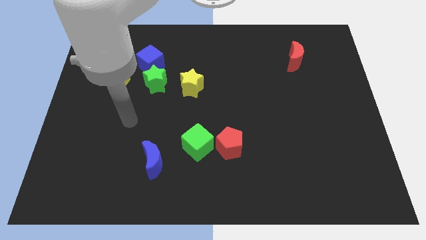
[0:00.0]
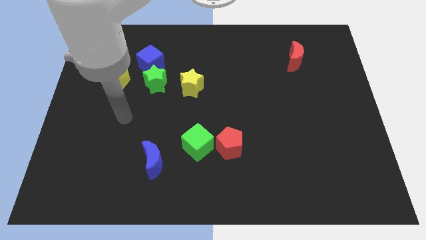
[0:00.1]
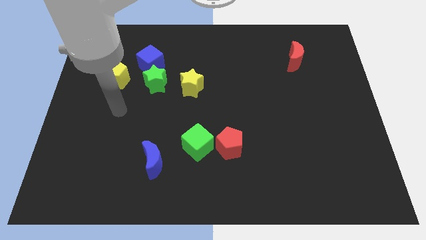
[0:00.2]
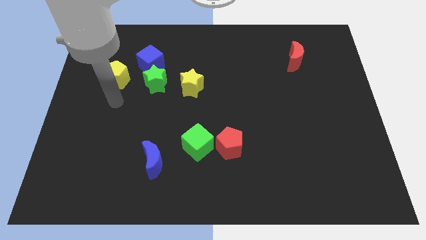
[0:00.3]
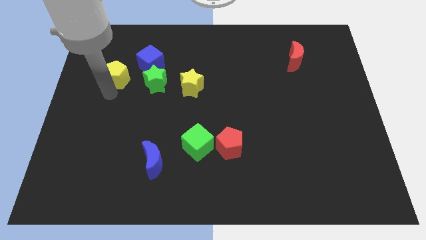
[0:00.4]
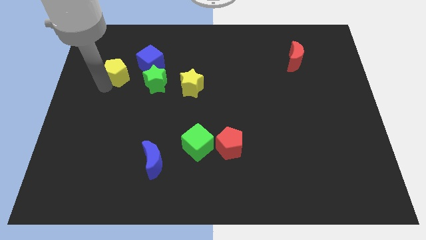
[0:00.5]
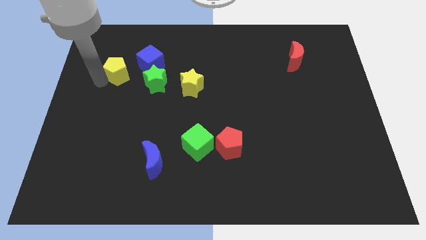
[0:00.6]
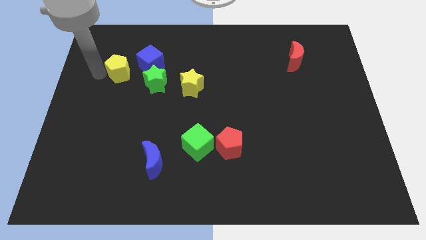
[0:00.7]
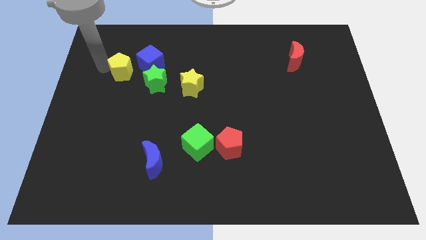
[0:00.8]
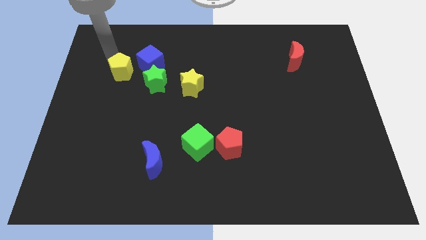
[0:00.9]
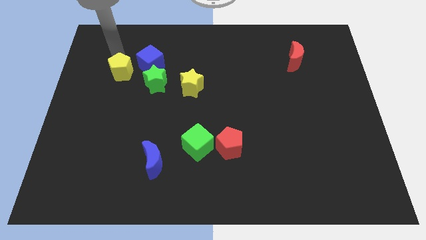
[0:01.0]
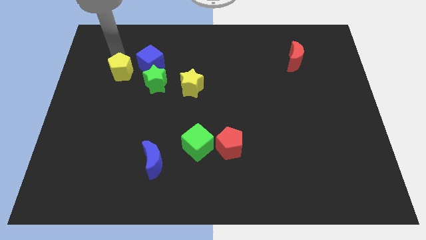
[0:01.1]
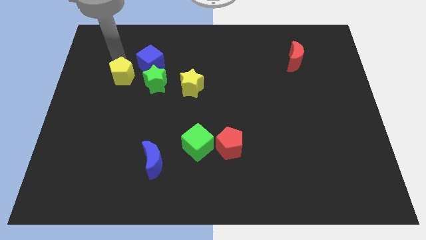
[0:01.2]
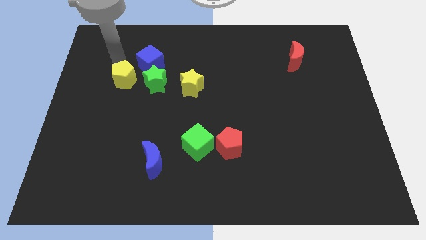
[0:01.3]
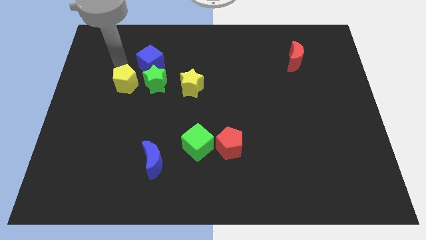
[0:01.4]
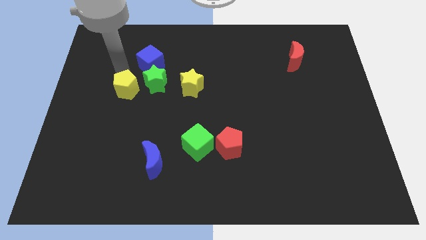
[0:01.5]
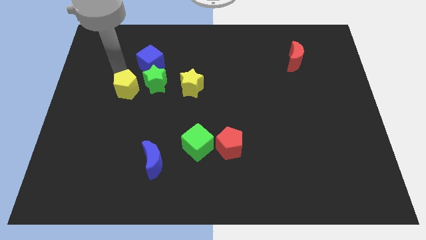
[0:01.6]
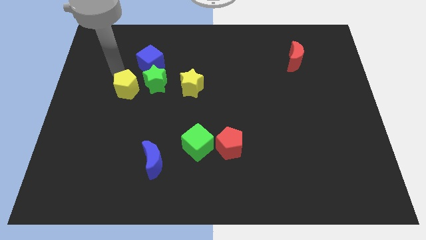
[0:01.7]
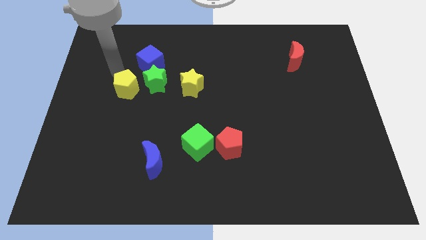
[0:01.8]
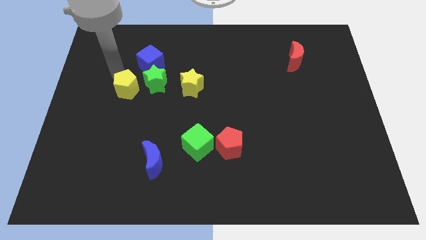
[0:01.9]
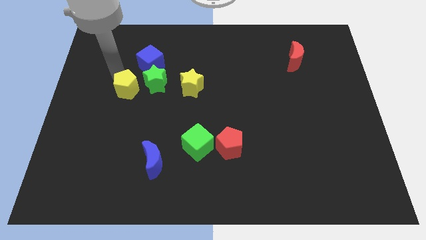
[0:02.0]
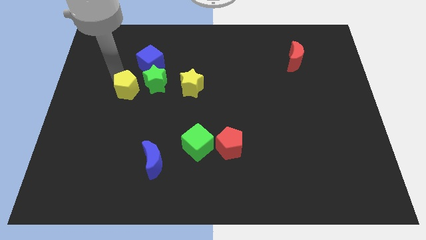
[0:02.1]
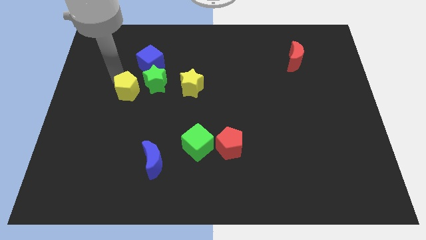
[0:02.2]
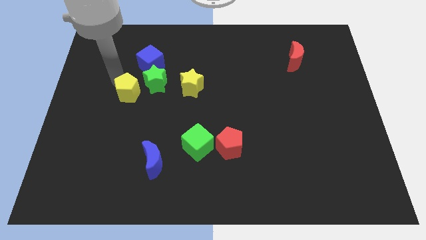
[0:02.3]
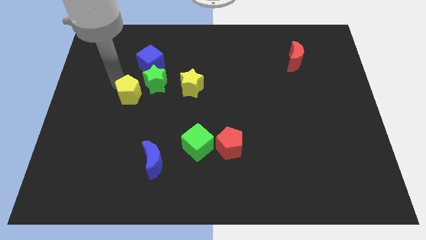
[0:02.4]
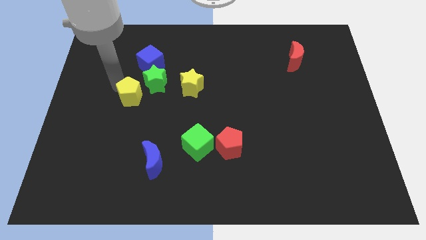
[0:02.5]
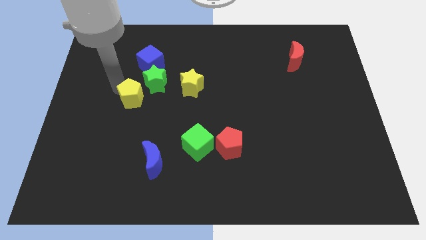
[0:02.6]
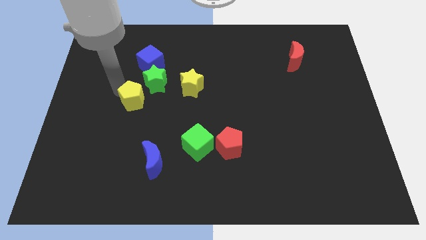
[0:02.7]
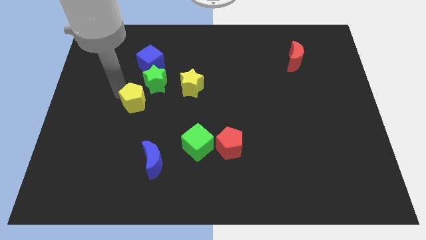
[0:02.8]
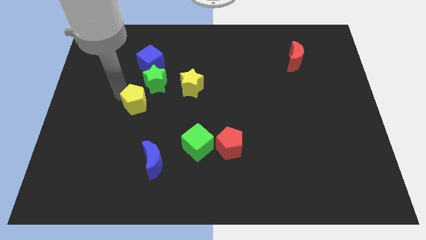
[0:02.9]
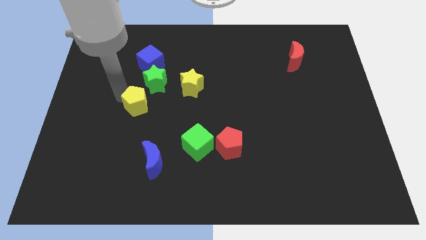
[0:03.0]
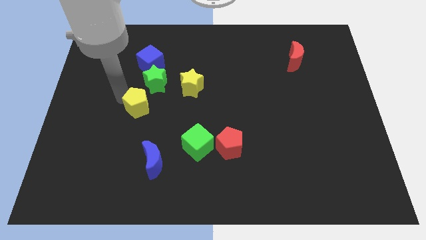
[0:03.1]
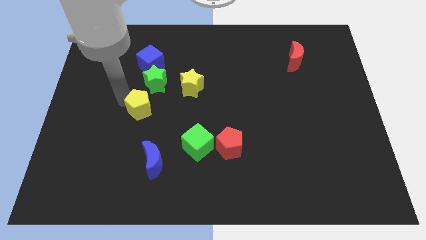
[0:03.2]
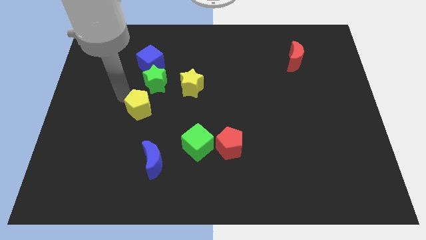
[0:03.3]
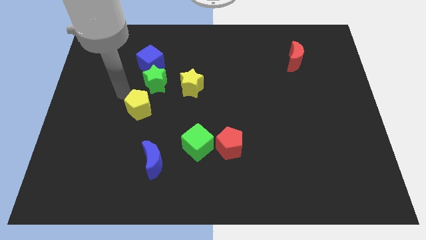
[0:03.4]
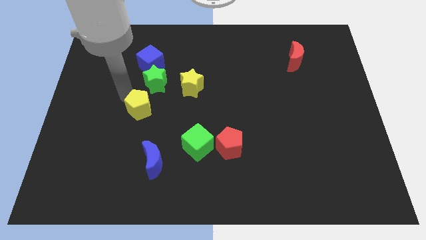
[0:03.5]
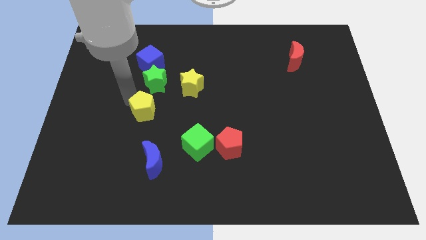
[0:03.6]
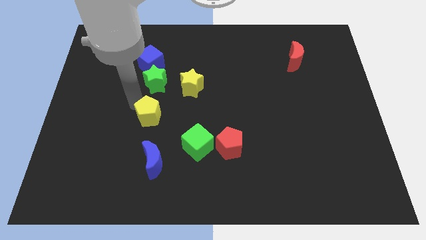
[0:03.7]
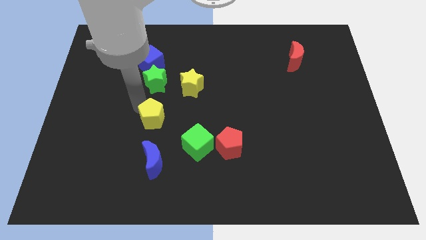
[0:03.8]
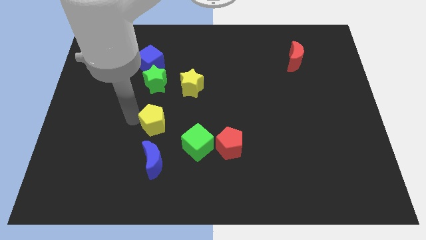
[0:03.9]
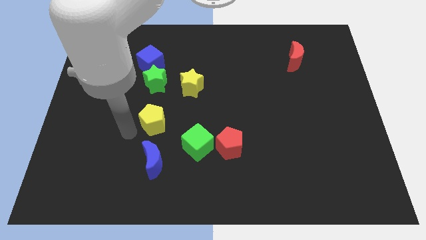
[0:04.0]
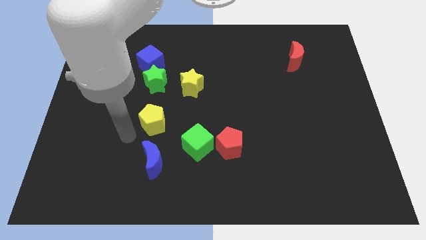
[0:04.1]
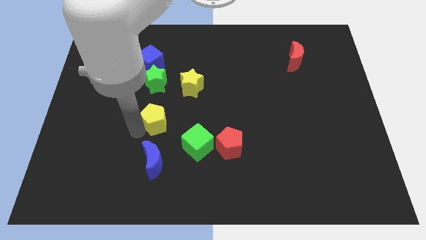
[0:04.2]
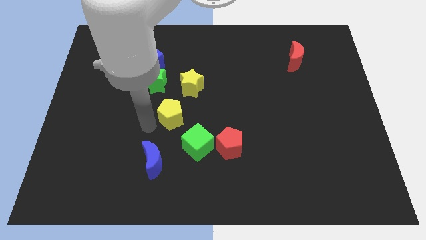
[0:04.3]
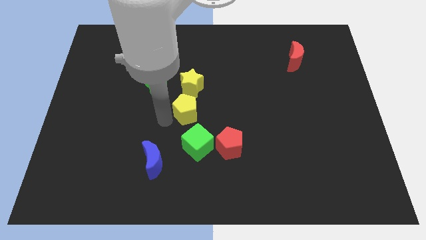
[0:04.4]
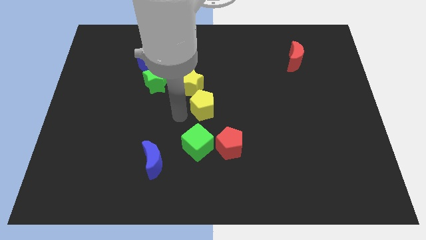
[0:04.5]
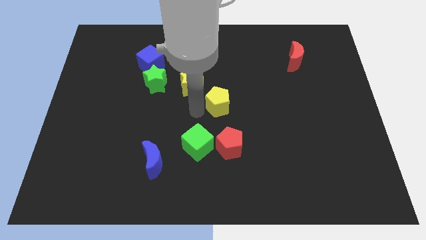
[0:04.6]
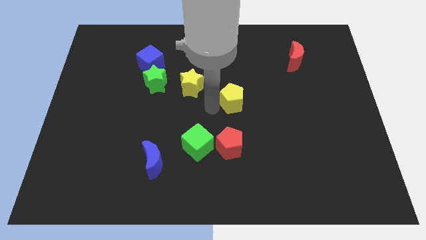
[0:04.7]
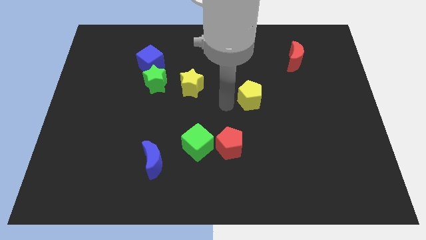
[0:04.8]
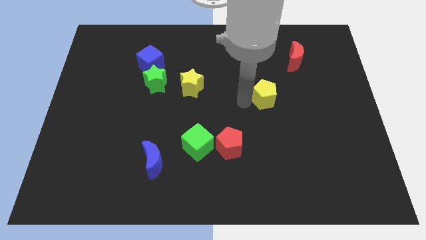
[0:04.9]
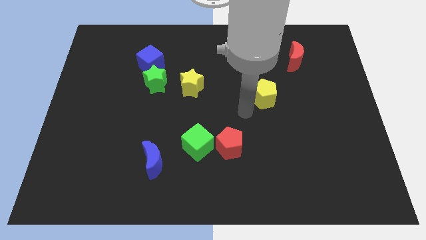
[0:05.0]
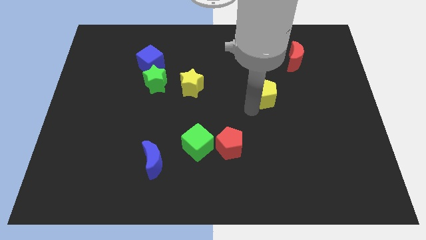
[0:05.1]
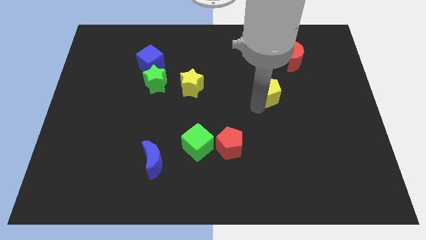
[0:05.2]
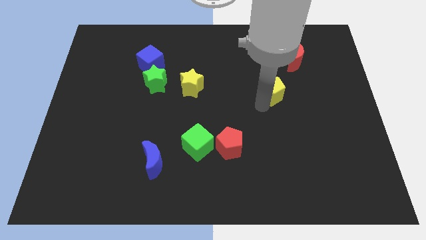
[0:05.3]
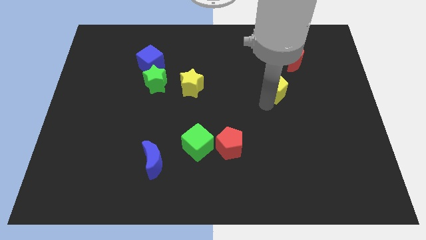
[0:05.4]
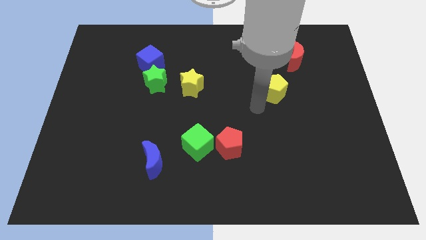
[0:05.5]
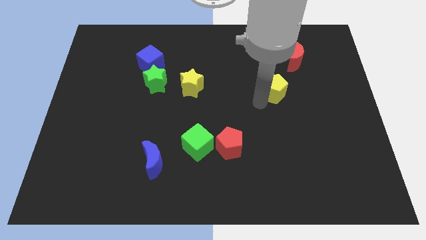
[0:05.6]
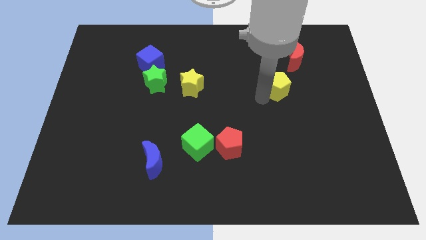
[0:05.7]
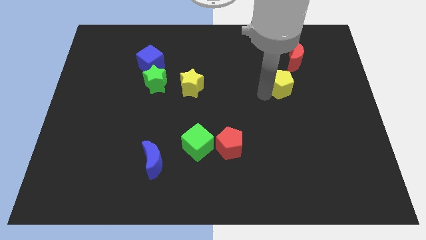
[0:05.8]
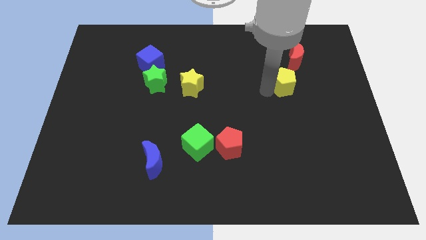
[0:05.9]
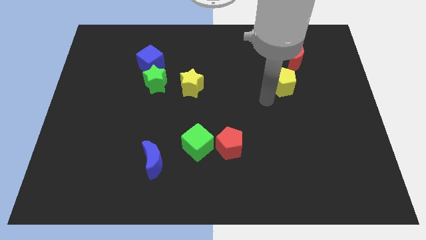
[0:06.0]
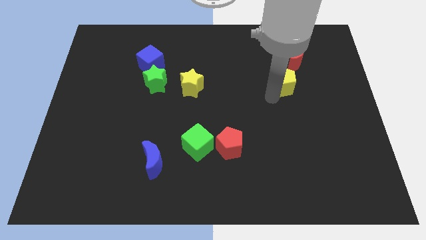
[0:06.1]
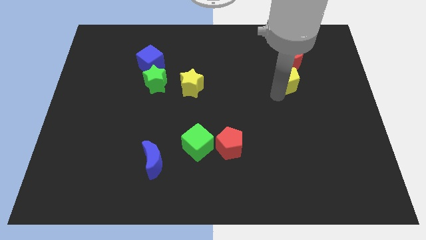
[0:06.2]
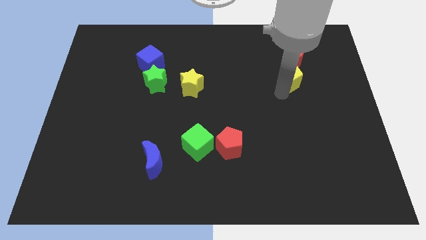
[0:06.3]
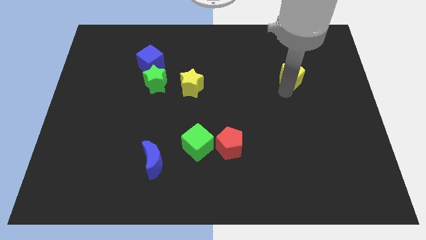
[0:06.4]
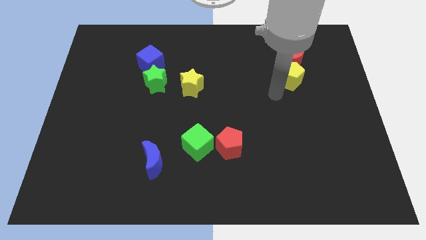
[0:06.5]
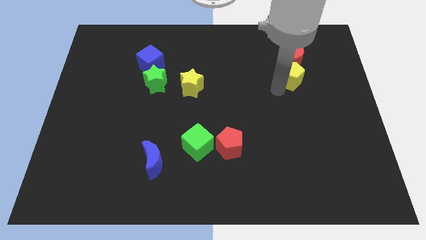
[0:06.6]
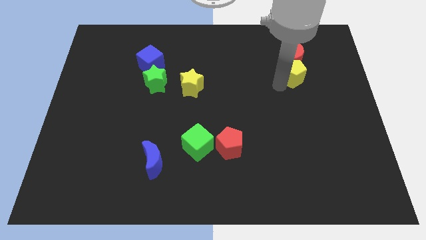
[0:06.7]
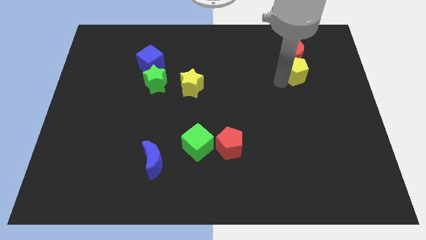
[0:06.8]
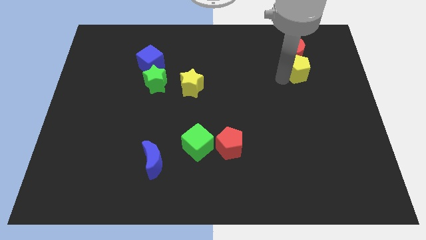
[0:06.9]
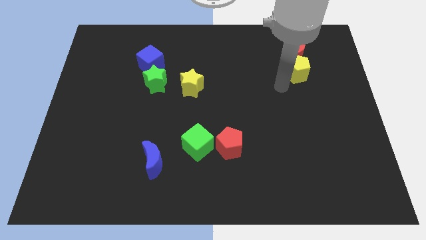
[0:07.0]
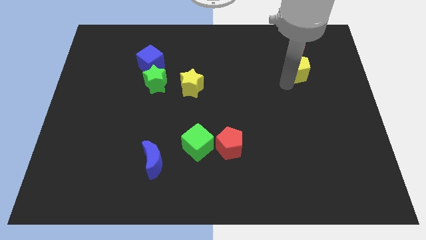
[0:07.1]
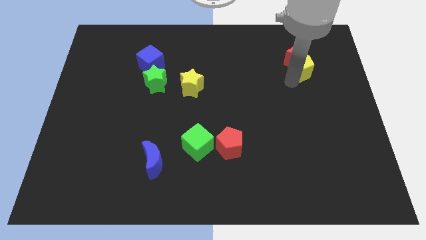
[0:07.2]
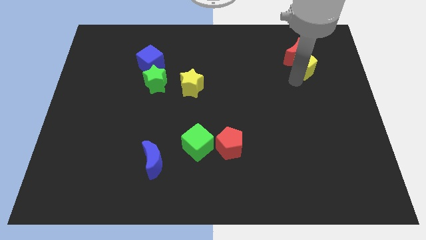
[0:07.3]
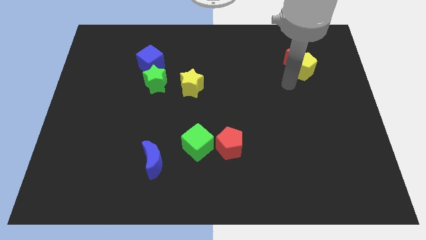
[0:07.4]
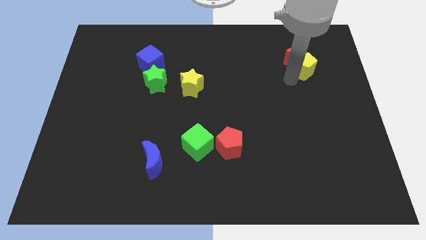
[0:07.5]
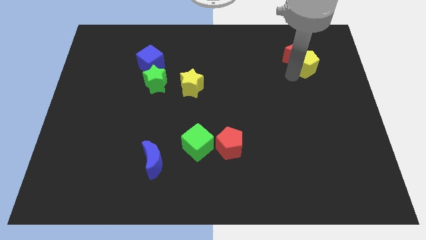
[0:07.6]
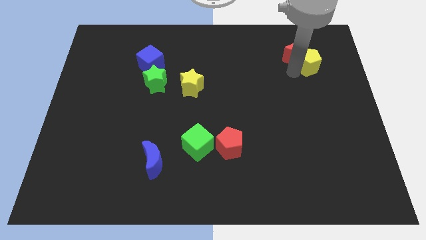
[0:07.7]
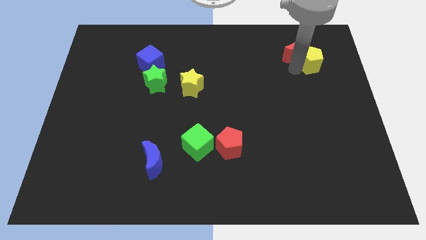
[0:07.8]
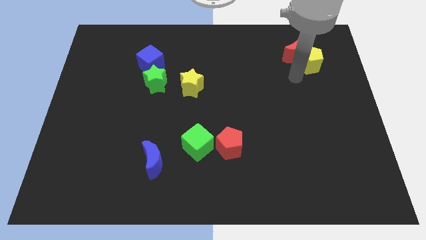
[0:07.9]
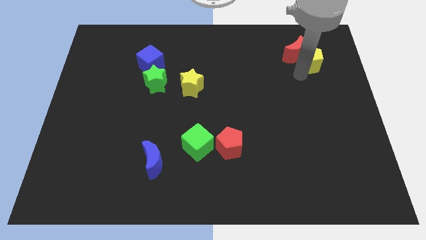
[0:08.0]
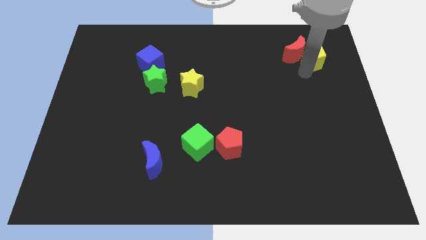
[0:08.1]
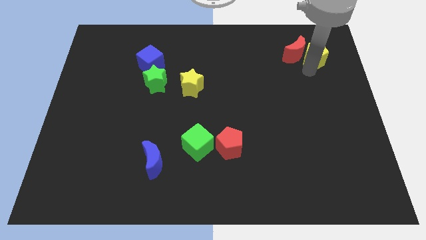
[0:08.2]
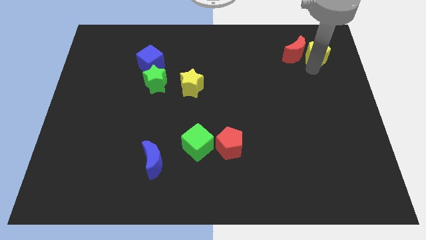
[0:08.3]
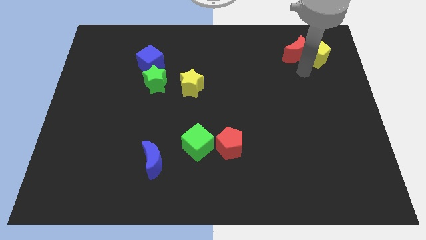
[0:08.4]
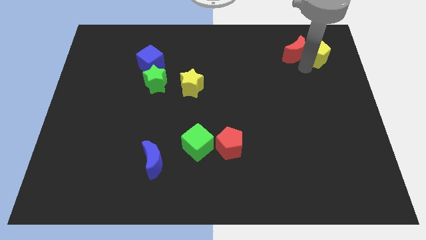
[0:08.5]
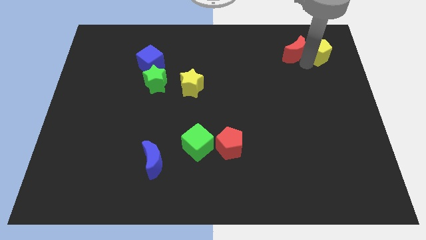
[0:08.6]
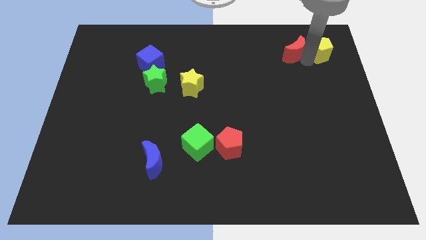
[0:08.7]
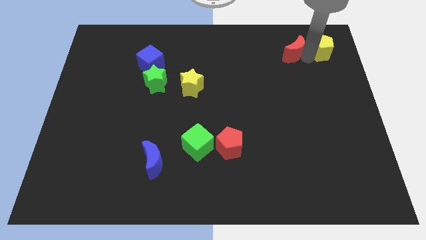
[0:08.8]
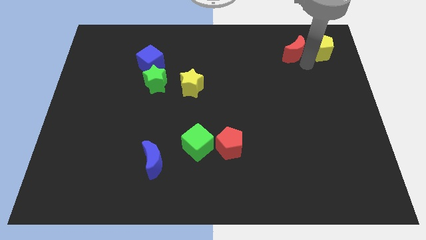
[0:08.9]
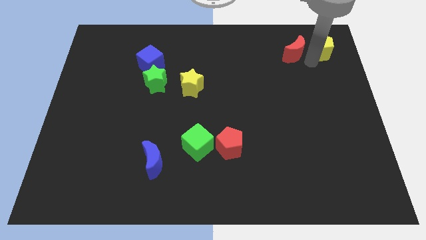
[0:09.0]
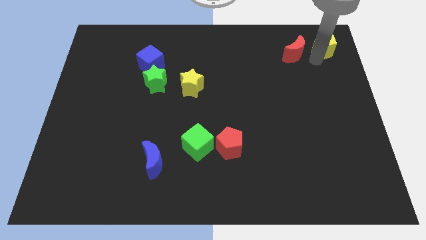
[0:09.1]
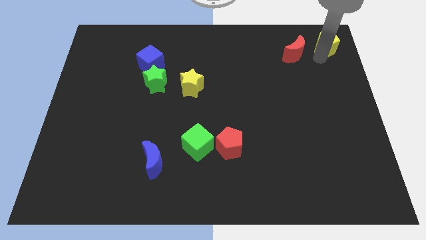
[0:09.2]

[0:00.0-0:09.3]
put the yellow pentagon to the top right
